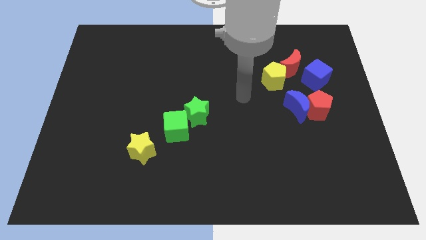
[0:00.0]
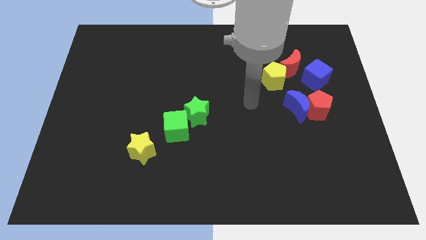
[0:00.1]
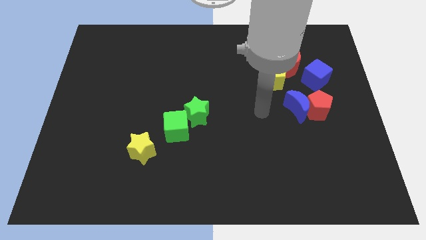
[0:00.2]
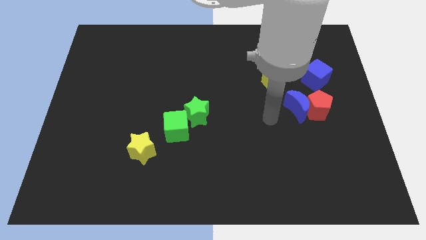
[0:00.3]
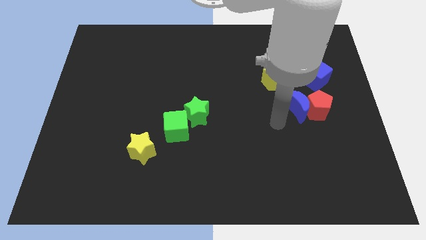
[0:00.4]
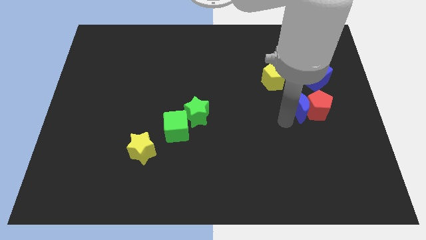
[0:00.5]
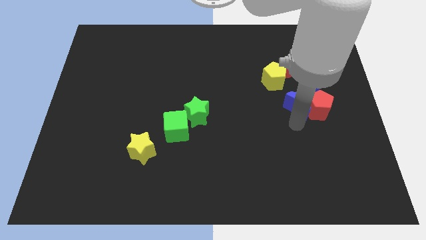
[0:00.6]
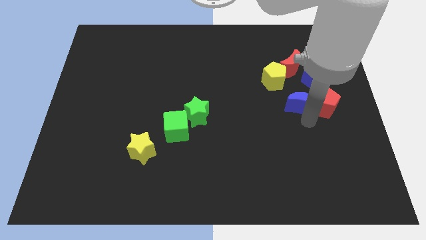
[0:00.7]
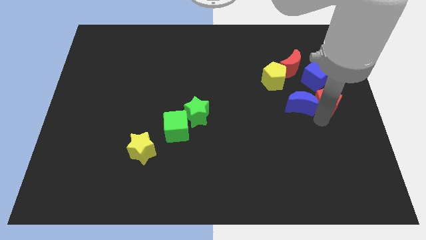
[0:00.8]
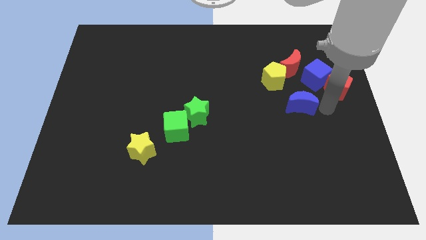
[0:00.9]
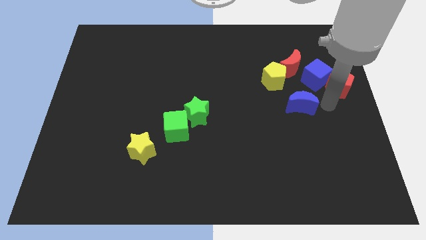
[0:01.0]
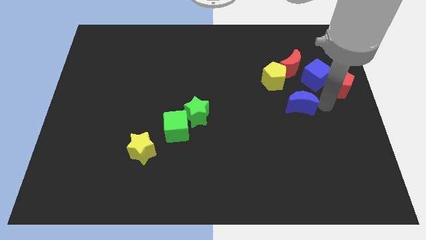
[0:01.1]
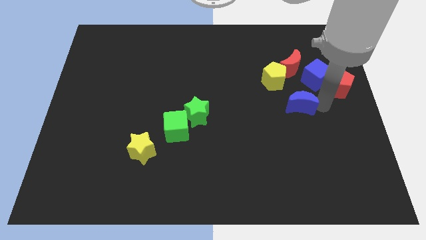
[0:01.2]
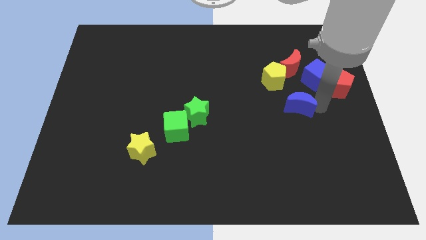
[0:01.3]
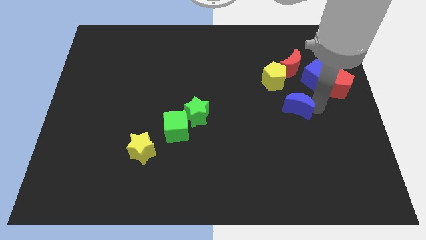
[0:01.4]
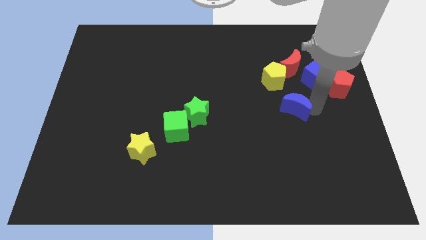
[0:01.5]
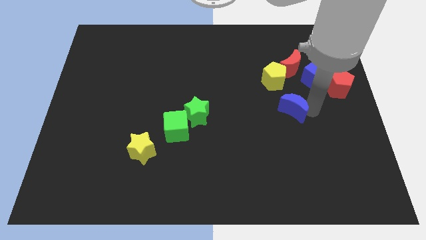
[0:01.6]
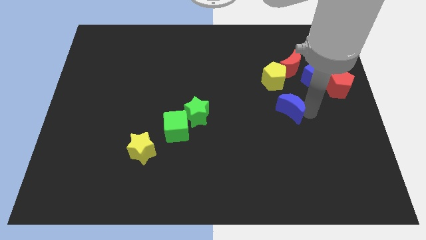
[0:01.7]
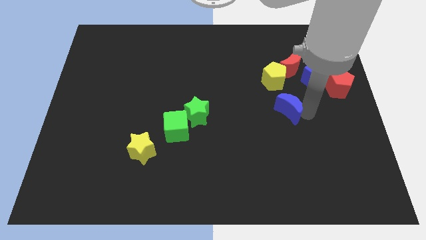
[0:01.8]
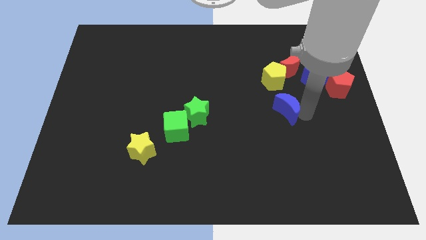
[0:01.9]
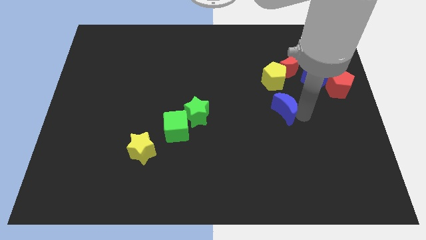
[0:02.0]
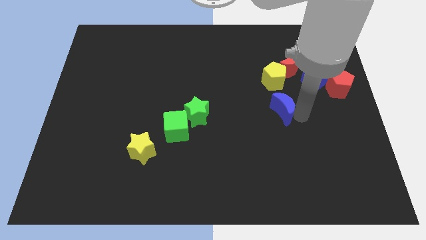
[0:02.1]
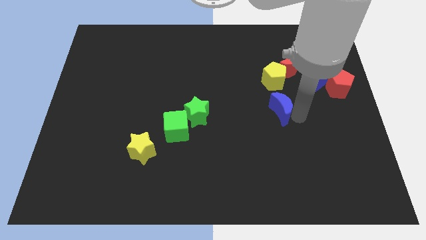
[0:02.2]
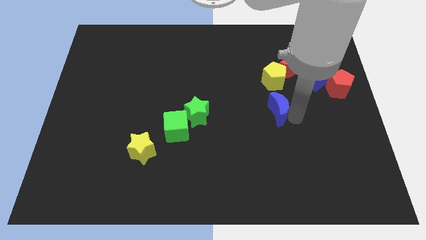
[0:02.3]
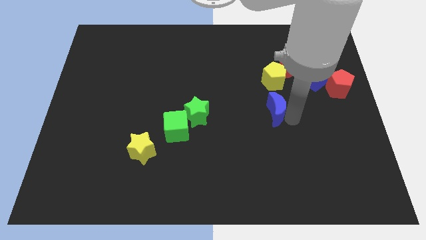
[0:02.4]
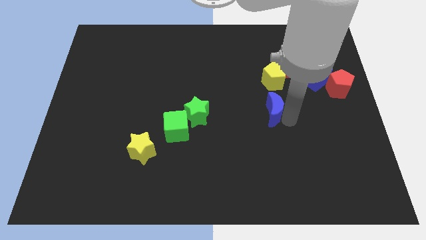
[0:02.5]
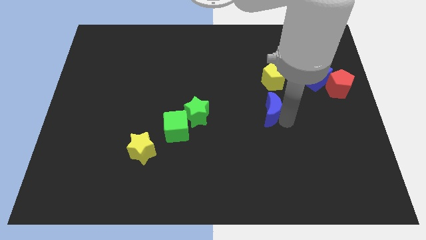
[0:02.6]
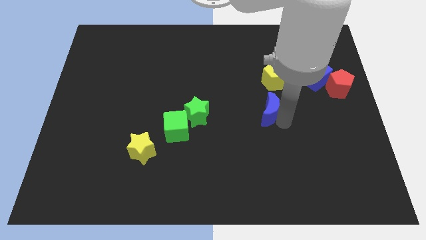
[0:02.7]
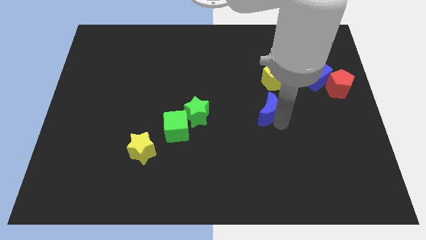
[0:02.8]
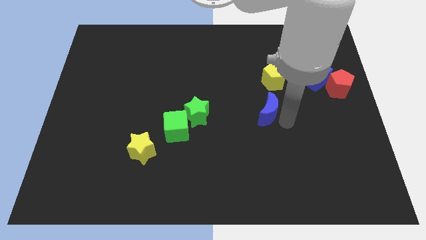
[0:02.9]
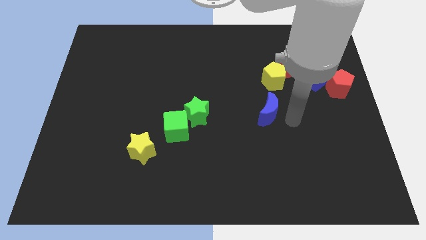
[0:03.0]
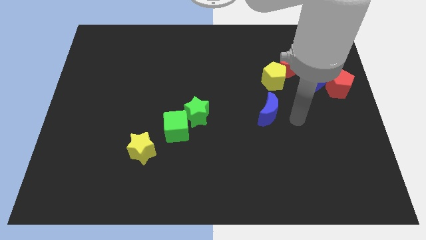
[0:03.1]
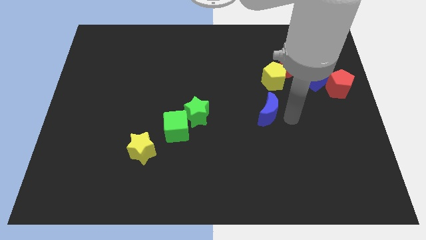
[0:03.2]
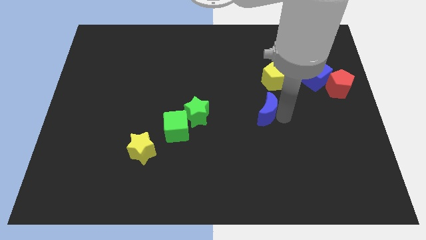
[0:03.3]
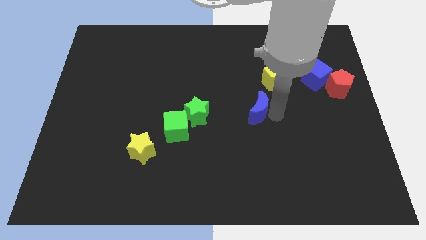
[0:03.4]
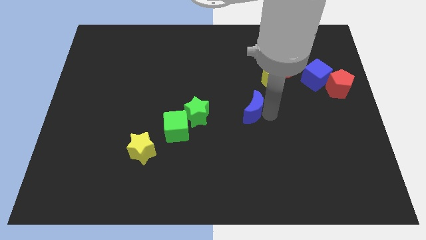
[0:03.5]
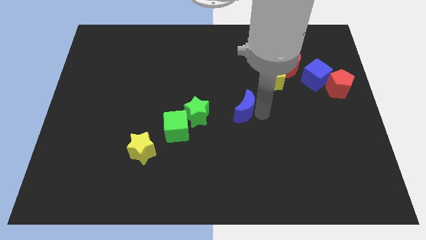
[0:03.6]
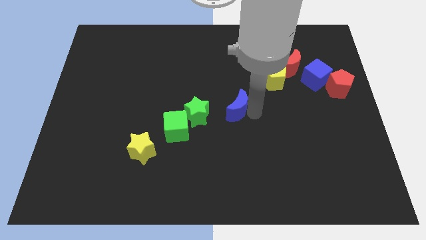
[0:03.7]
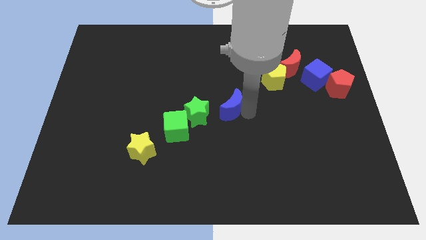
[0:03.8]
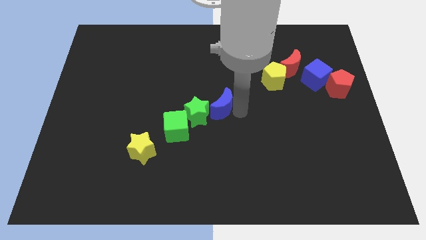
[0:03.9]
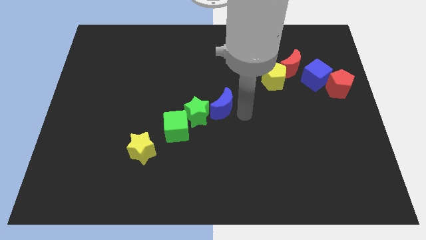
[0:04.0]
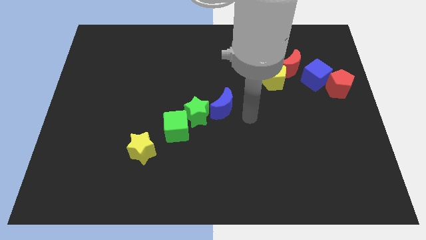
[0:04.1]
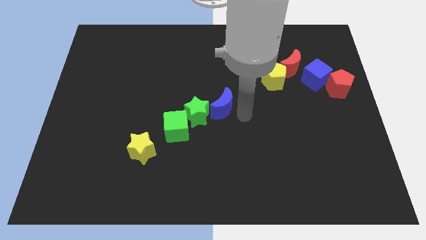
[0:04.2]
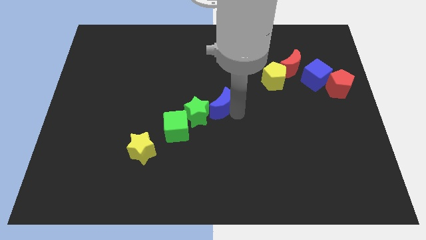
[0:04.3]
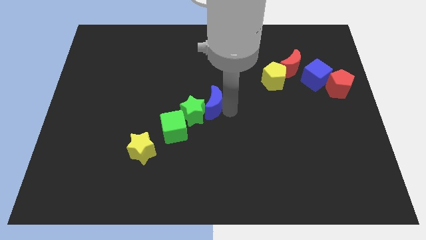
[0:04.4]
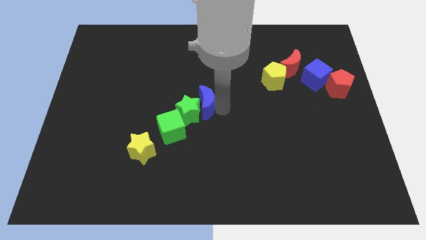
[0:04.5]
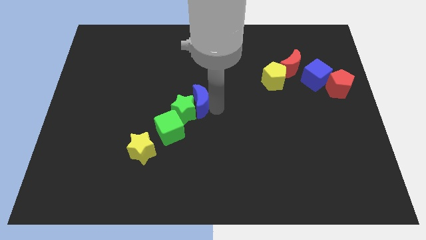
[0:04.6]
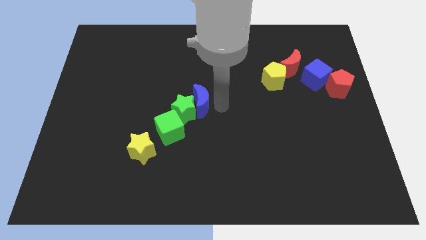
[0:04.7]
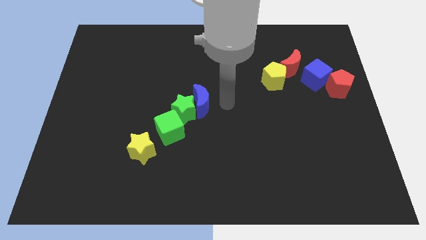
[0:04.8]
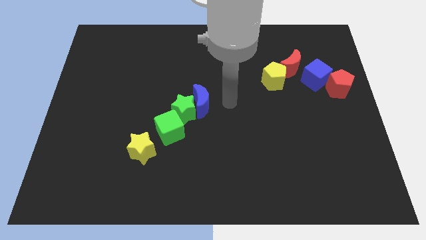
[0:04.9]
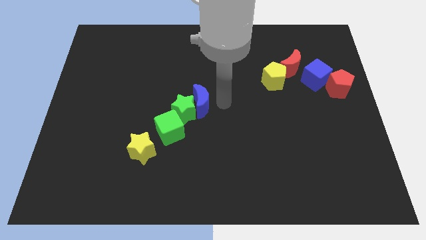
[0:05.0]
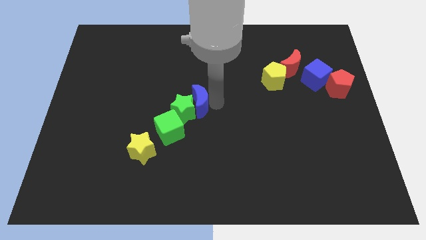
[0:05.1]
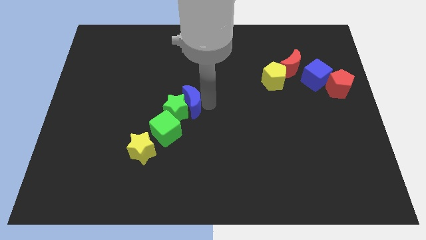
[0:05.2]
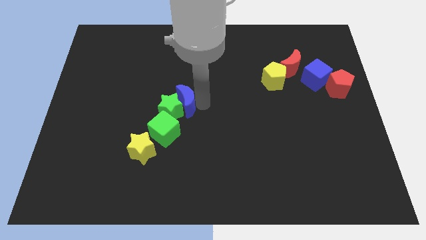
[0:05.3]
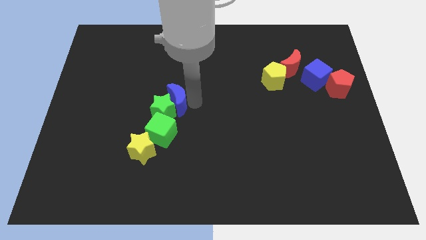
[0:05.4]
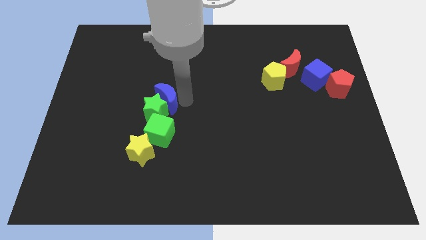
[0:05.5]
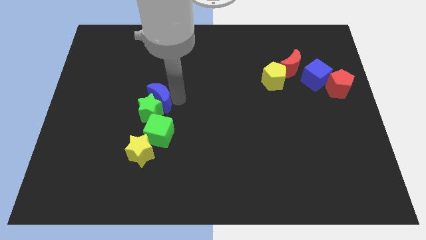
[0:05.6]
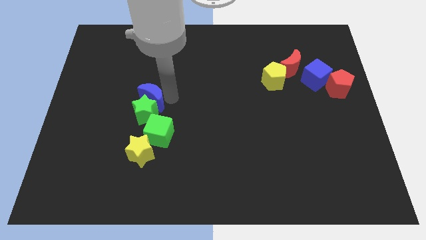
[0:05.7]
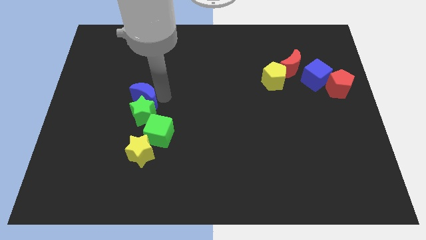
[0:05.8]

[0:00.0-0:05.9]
slide the blue moon to the top left side of the green cube

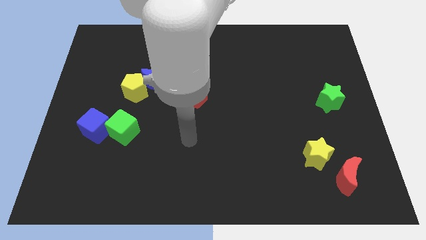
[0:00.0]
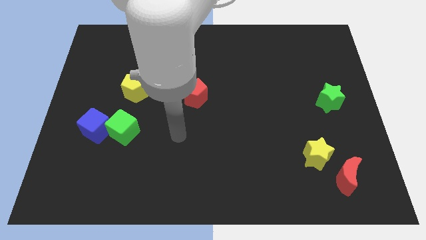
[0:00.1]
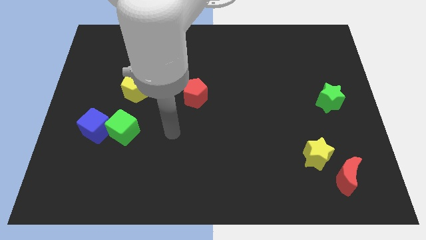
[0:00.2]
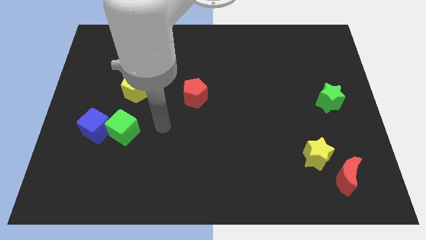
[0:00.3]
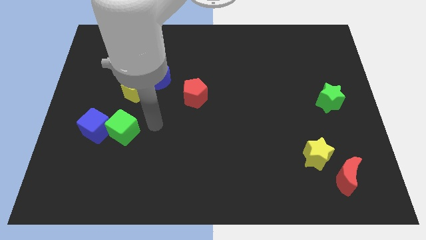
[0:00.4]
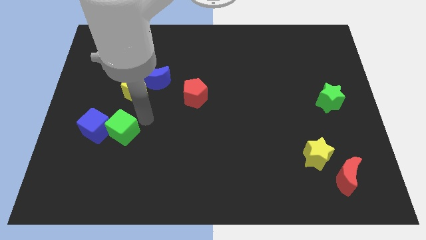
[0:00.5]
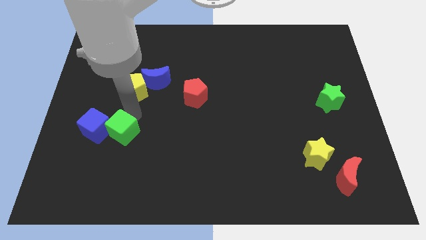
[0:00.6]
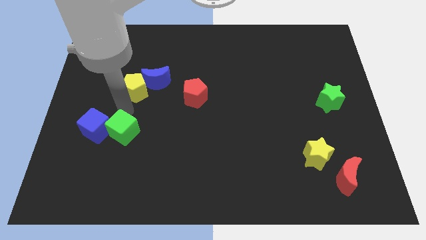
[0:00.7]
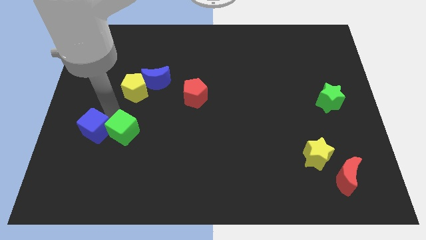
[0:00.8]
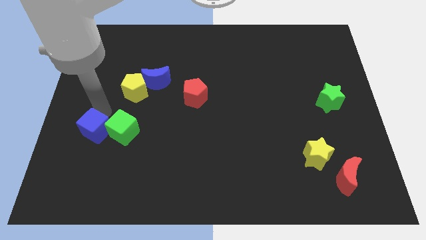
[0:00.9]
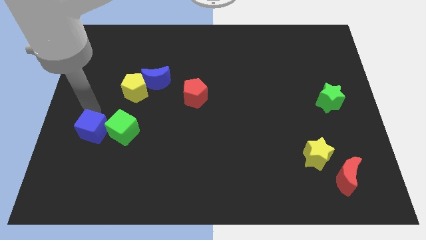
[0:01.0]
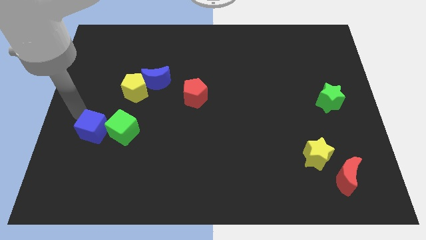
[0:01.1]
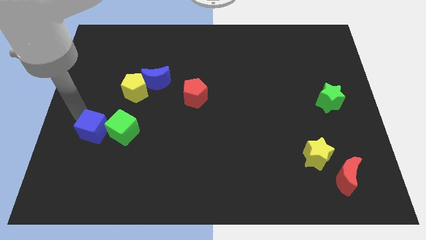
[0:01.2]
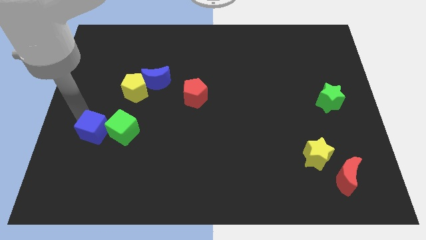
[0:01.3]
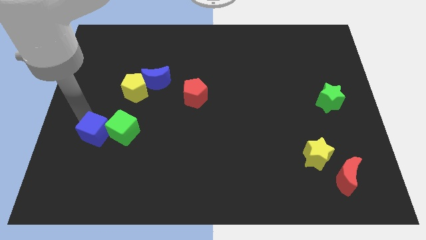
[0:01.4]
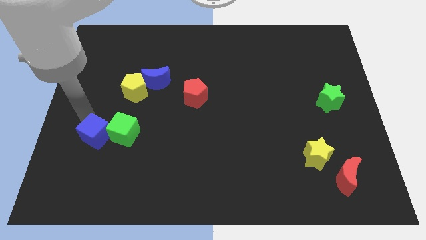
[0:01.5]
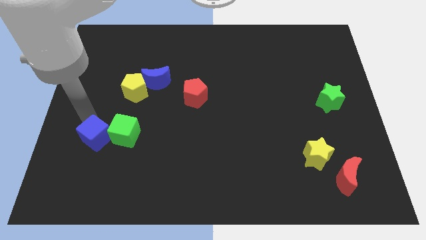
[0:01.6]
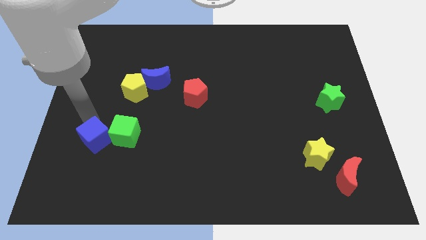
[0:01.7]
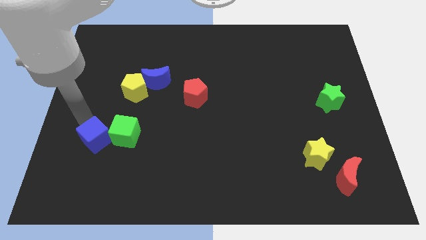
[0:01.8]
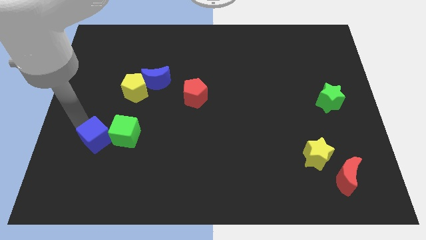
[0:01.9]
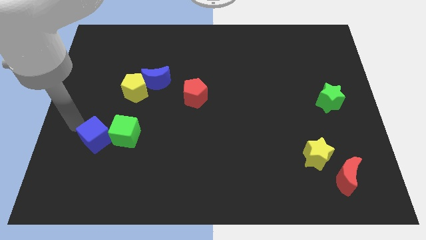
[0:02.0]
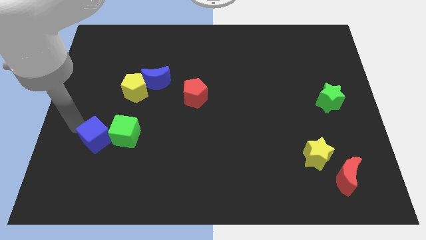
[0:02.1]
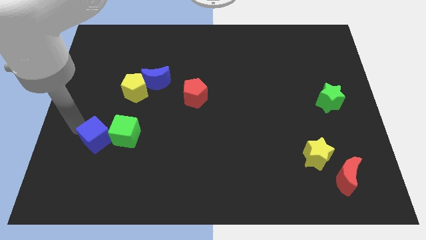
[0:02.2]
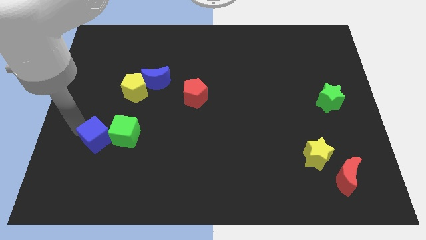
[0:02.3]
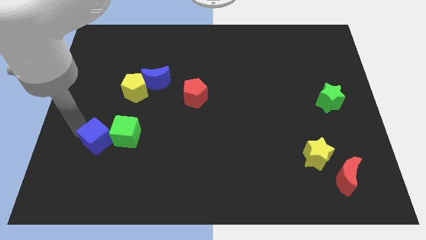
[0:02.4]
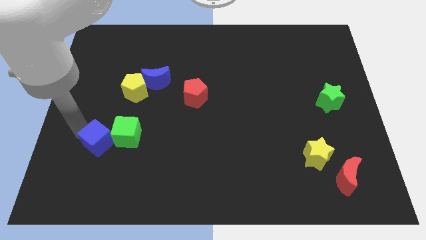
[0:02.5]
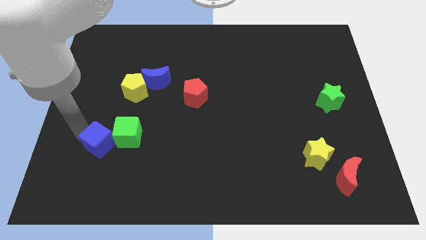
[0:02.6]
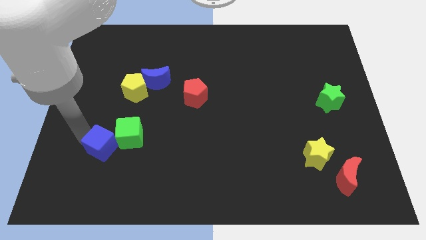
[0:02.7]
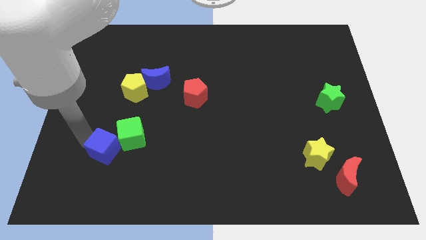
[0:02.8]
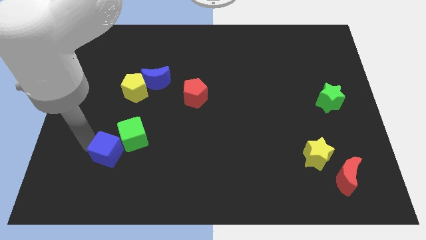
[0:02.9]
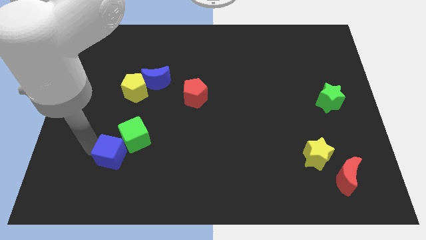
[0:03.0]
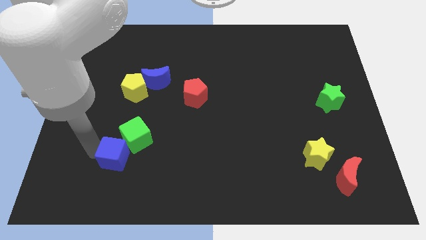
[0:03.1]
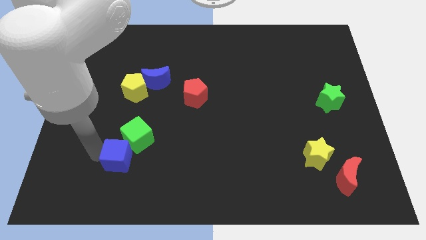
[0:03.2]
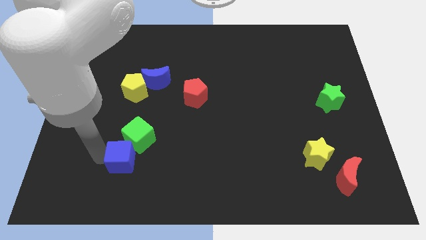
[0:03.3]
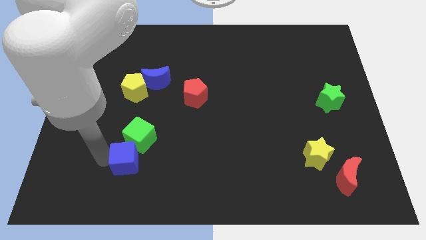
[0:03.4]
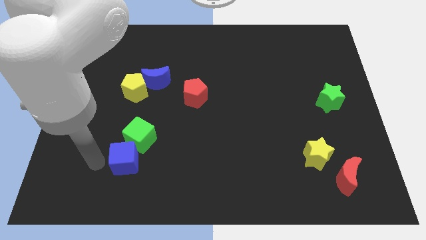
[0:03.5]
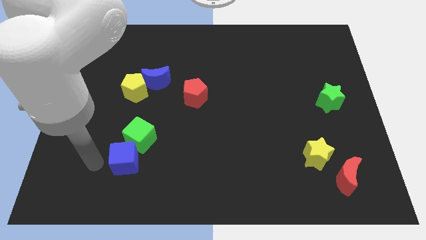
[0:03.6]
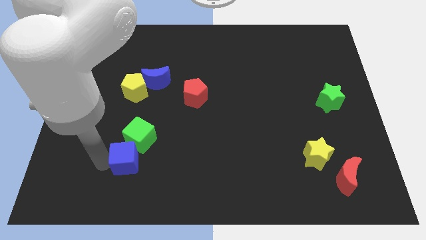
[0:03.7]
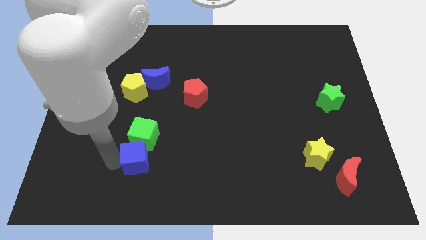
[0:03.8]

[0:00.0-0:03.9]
slide the blue cube to the bottom right side of the green cube
